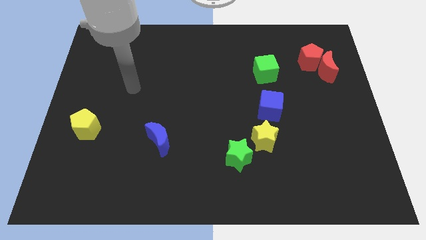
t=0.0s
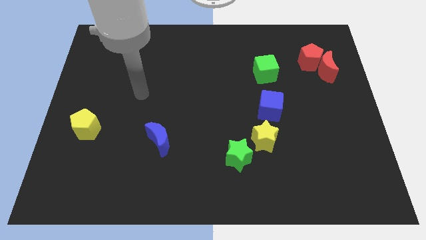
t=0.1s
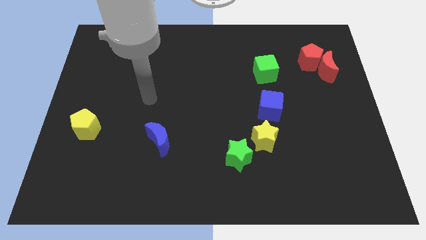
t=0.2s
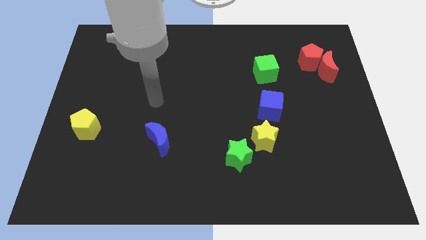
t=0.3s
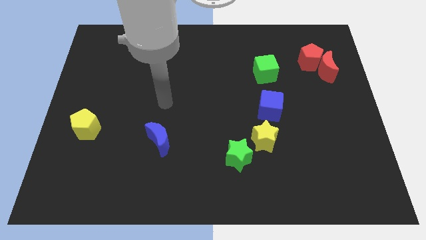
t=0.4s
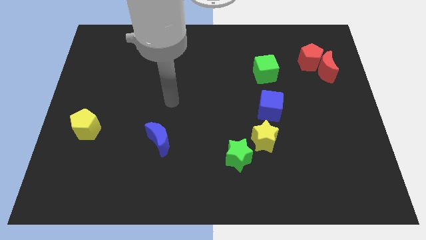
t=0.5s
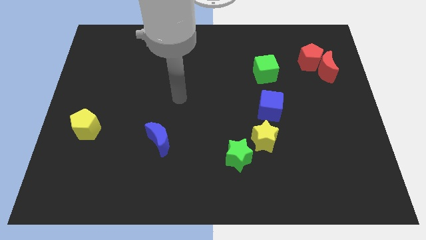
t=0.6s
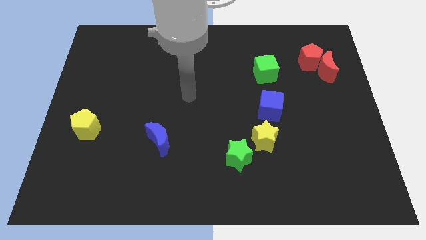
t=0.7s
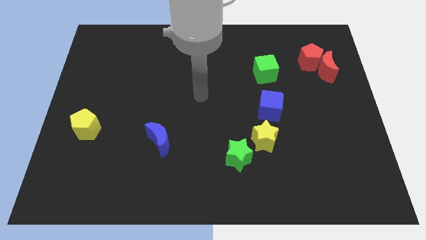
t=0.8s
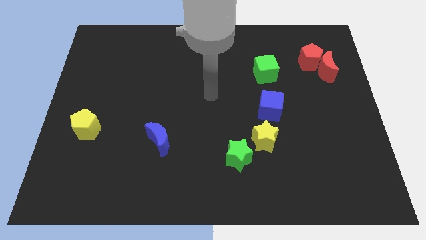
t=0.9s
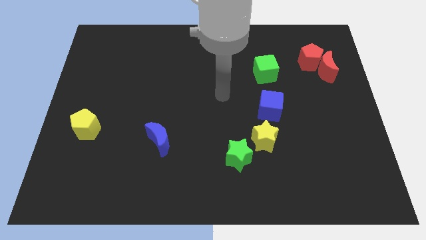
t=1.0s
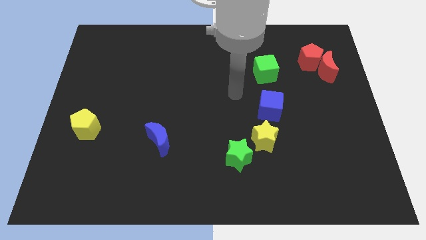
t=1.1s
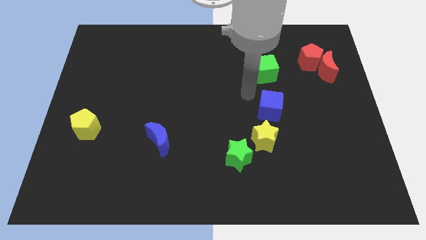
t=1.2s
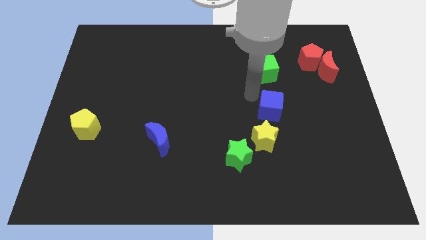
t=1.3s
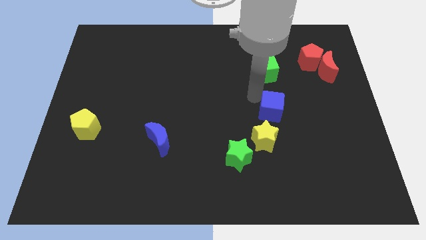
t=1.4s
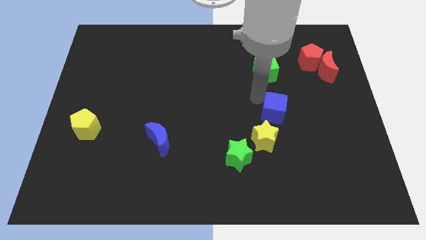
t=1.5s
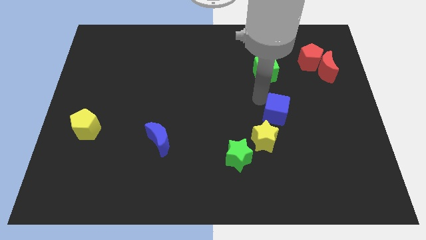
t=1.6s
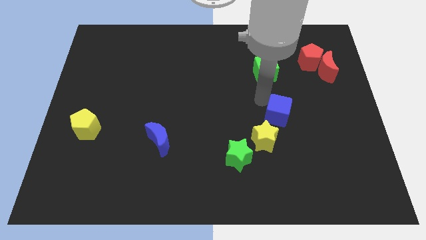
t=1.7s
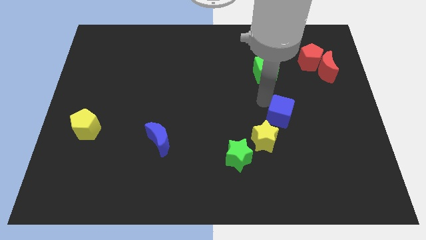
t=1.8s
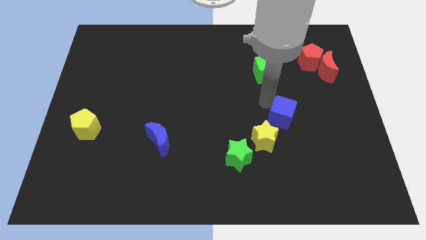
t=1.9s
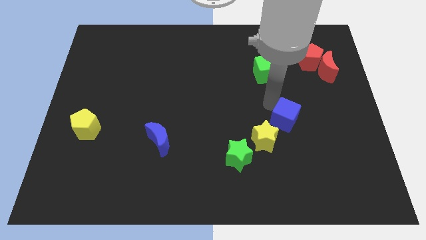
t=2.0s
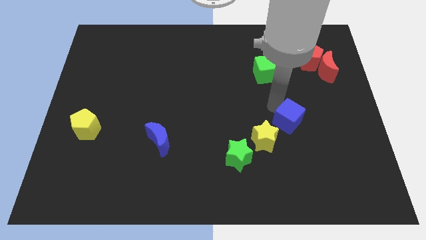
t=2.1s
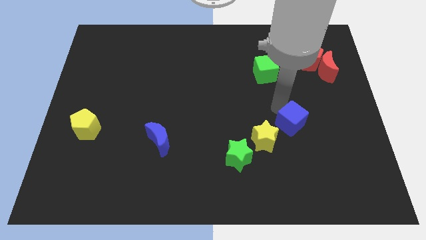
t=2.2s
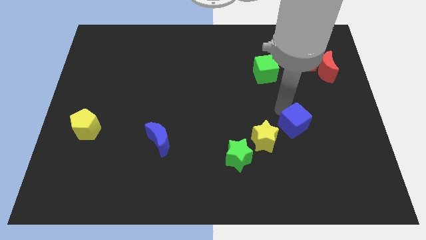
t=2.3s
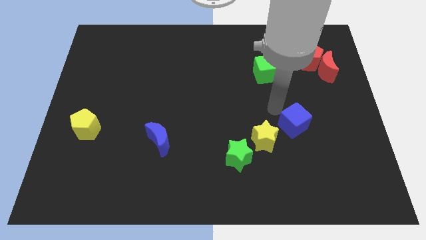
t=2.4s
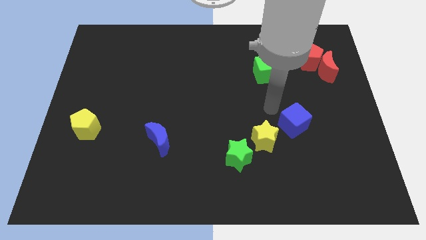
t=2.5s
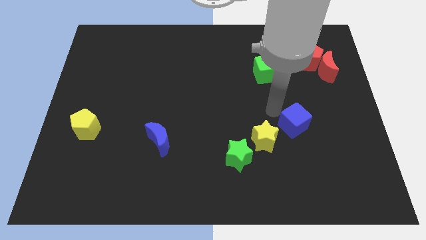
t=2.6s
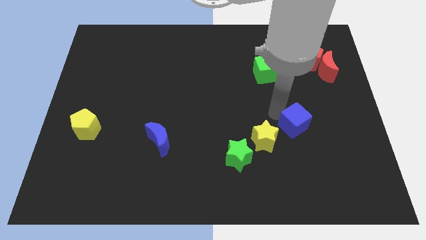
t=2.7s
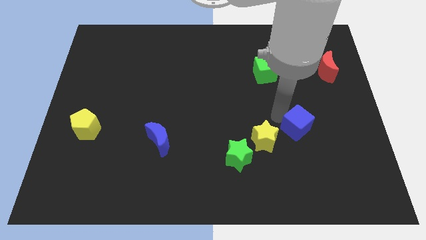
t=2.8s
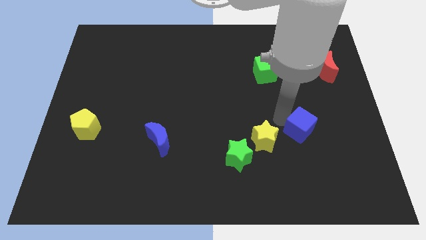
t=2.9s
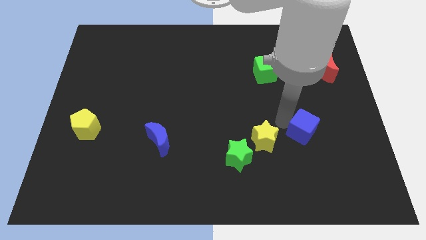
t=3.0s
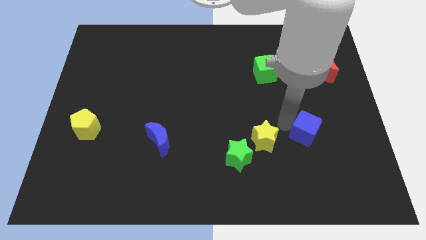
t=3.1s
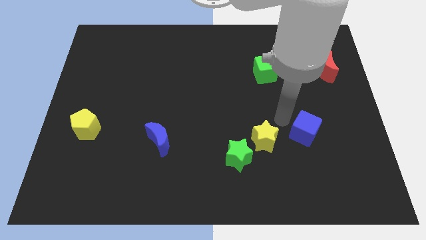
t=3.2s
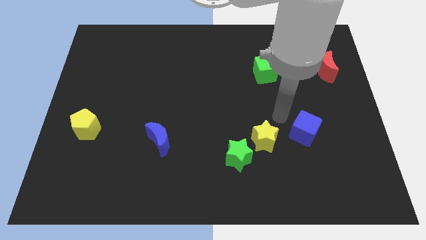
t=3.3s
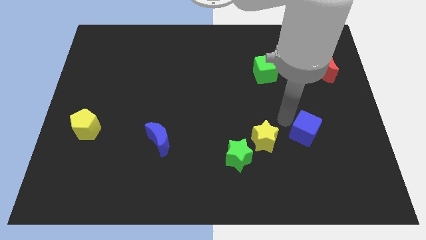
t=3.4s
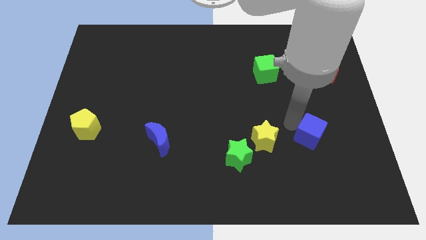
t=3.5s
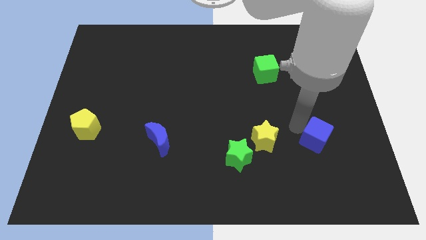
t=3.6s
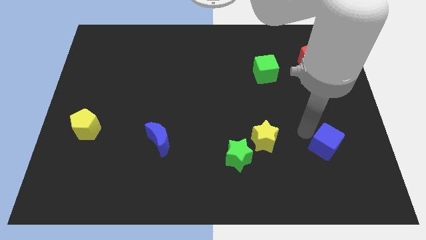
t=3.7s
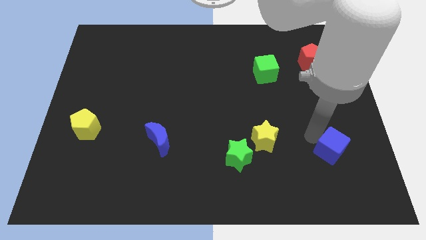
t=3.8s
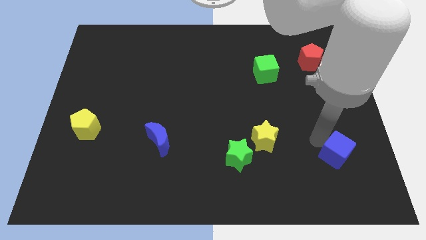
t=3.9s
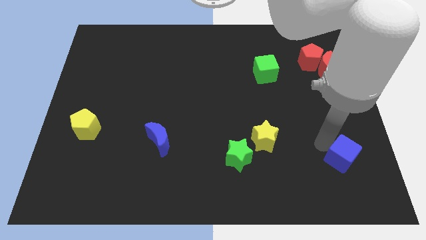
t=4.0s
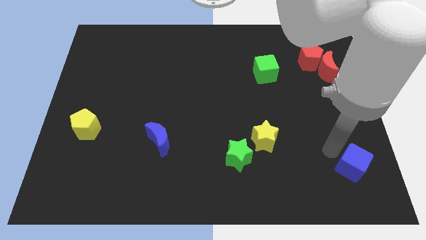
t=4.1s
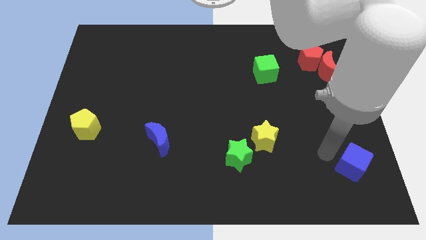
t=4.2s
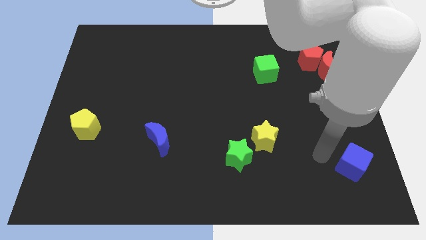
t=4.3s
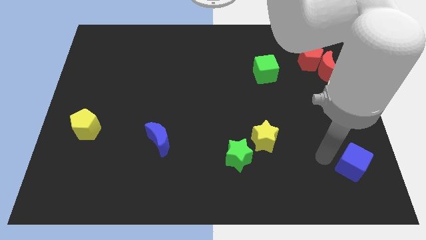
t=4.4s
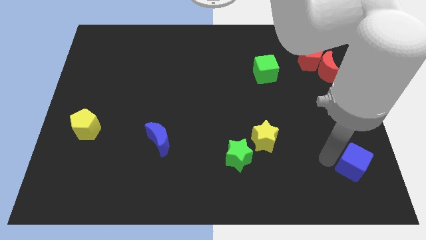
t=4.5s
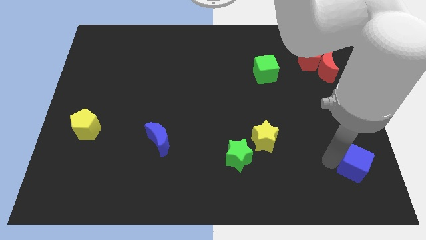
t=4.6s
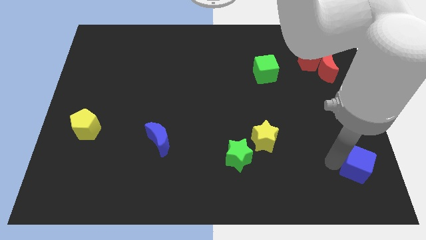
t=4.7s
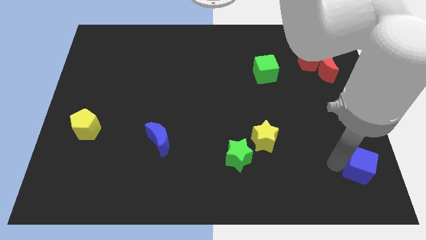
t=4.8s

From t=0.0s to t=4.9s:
put the blue cube to the bottom right

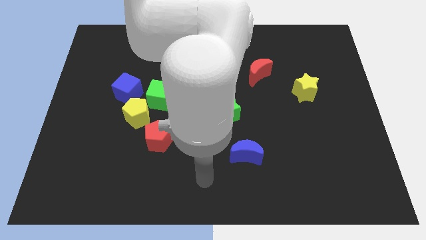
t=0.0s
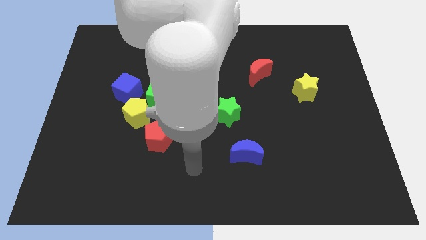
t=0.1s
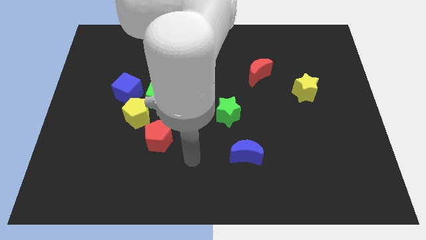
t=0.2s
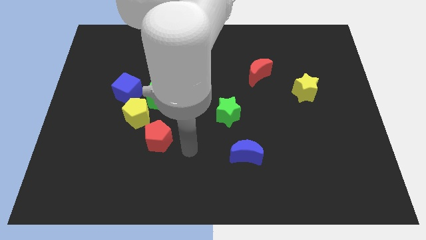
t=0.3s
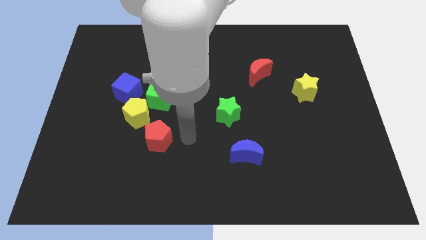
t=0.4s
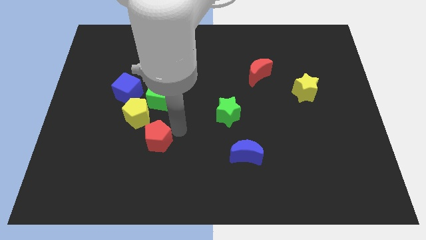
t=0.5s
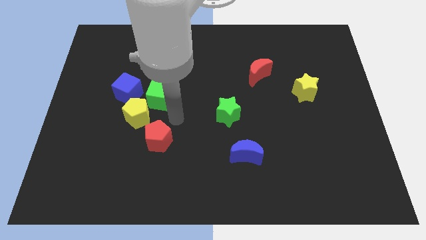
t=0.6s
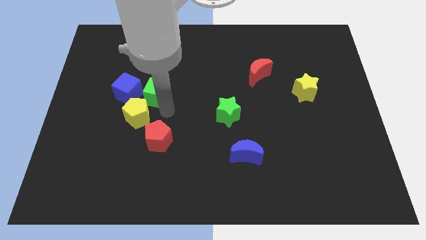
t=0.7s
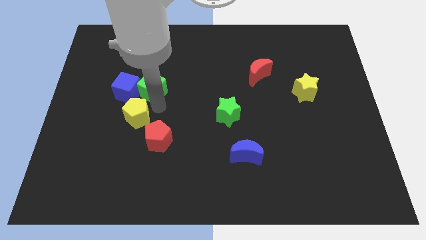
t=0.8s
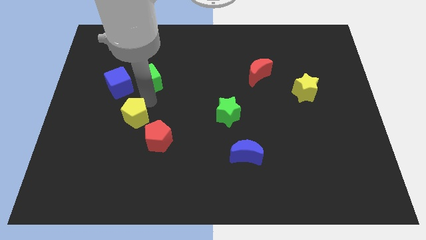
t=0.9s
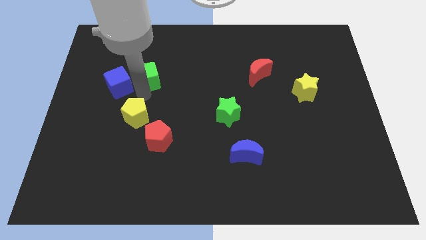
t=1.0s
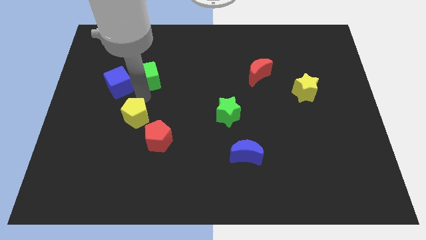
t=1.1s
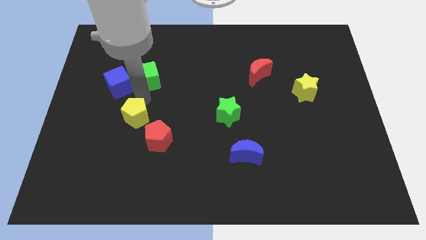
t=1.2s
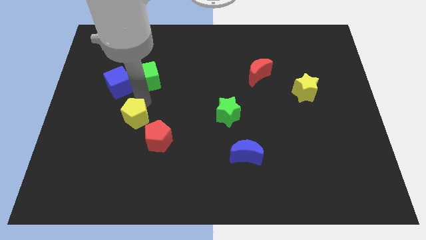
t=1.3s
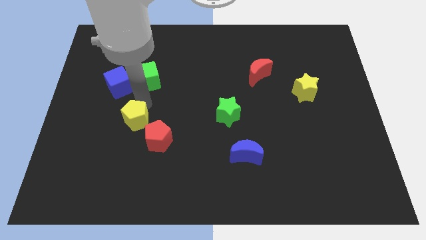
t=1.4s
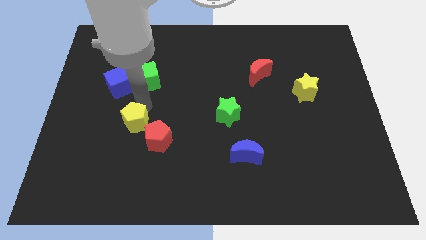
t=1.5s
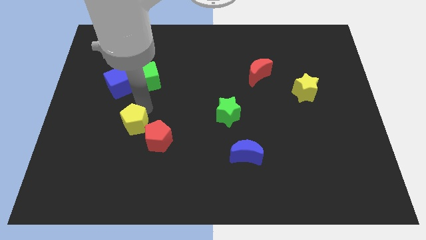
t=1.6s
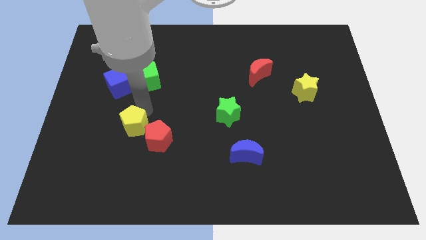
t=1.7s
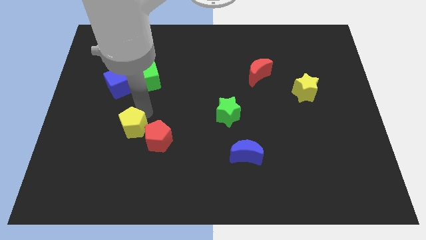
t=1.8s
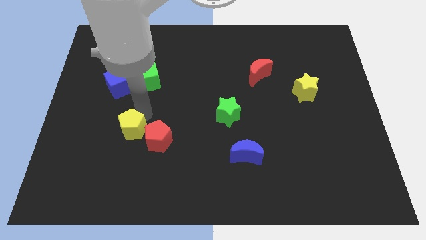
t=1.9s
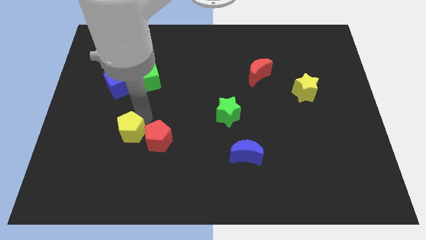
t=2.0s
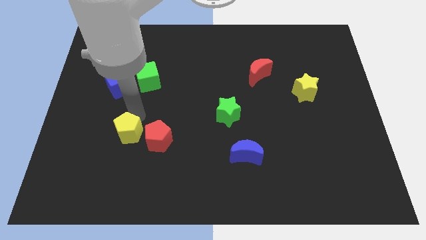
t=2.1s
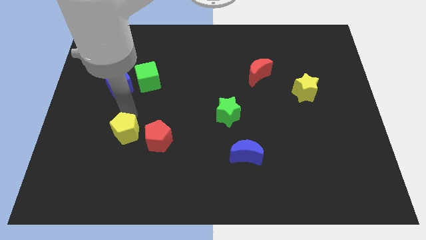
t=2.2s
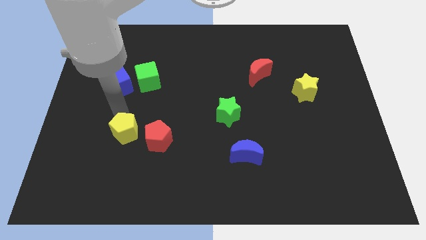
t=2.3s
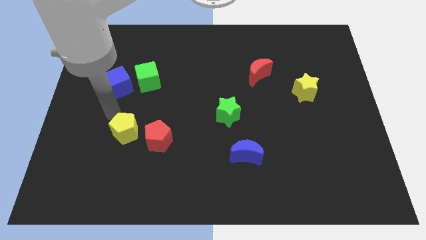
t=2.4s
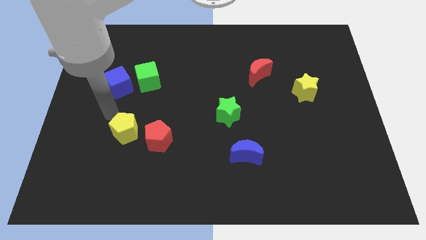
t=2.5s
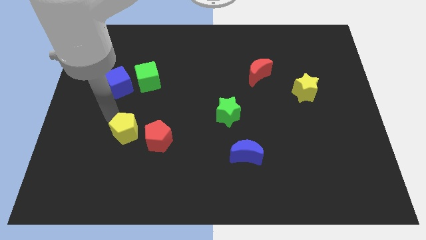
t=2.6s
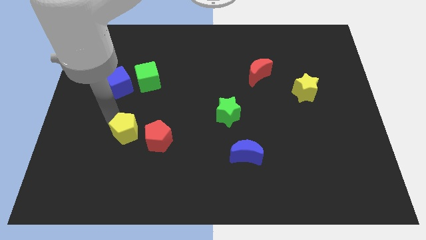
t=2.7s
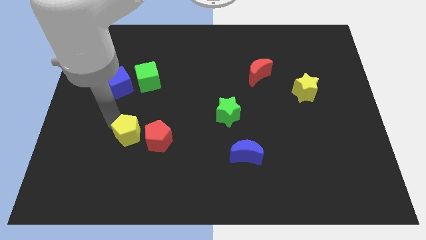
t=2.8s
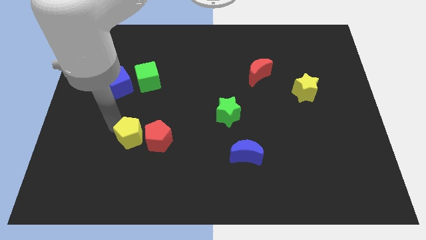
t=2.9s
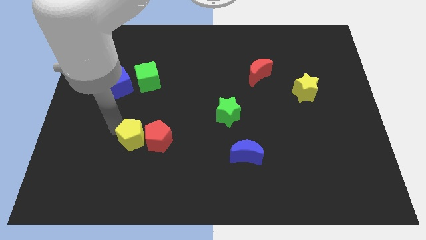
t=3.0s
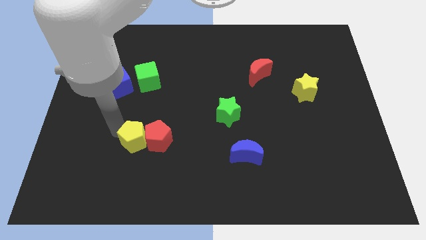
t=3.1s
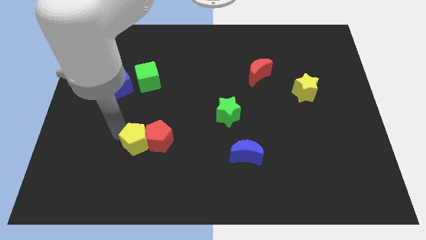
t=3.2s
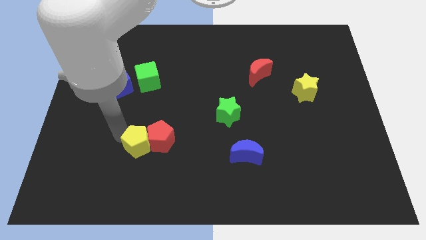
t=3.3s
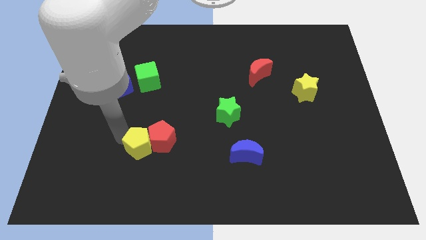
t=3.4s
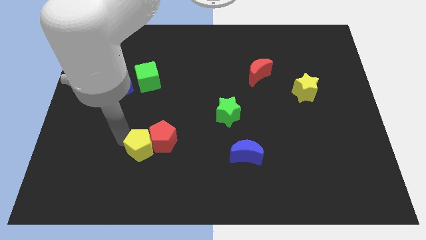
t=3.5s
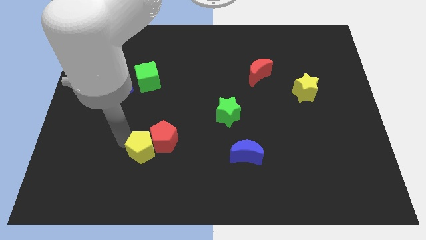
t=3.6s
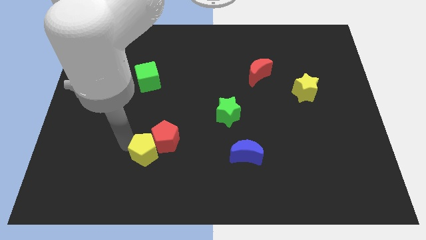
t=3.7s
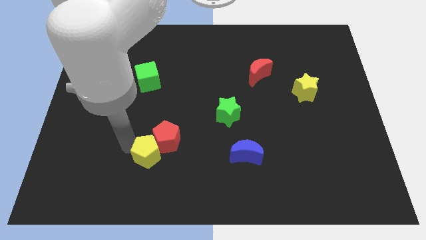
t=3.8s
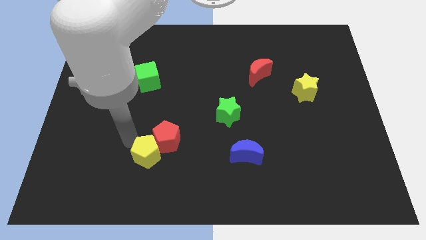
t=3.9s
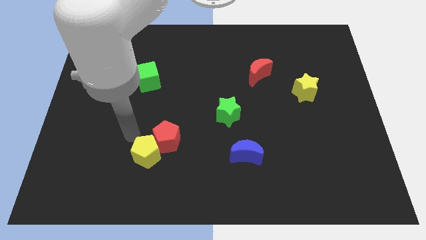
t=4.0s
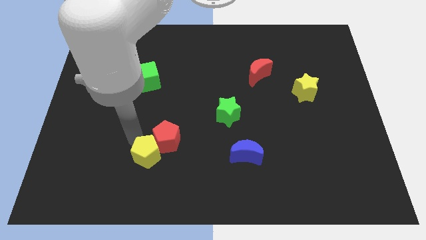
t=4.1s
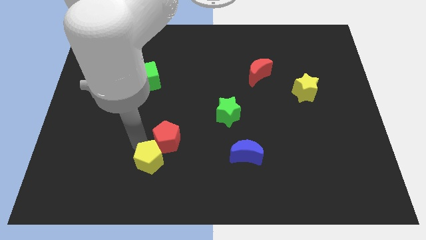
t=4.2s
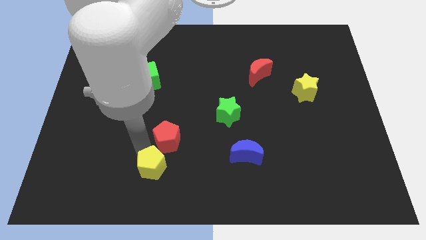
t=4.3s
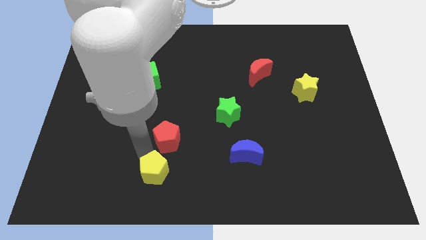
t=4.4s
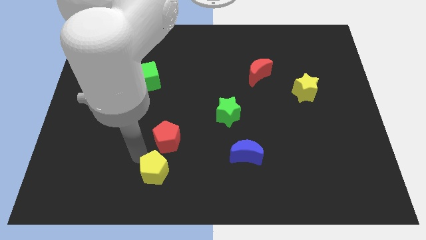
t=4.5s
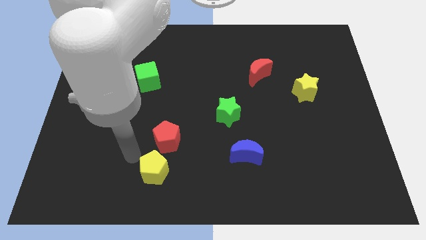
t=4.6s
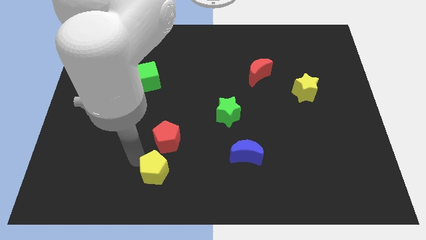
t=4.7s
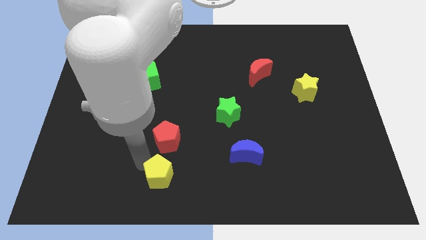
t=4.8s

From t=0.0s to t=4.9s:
push the yellow pentagon to the bottom side
